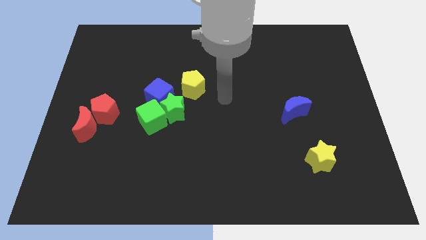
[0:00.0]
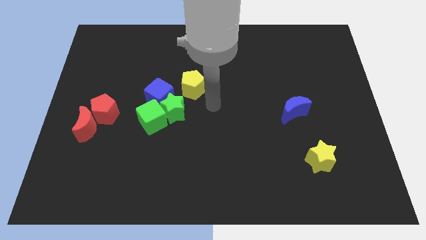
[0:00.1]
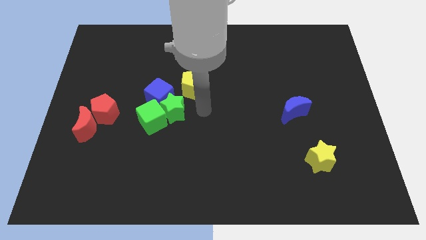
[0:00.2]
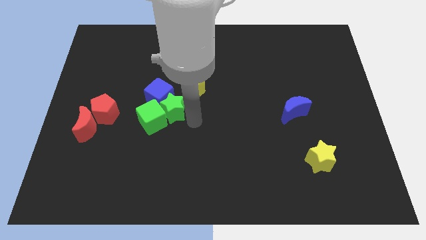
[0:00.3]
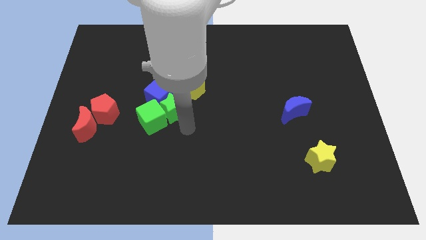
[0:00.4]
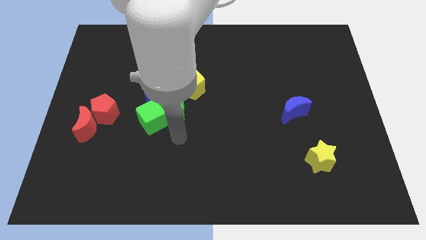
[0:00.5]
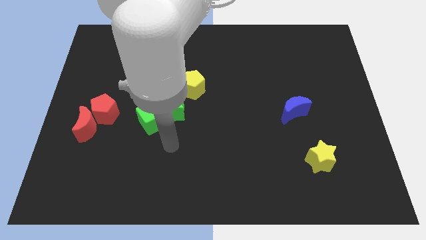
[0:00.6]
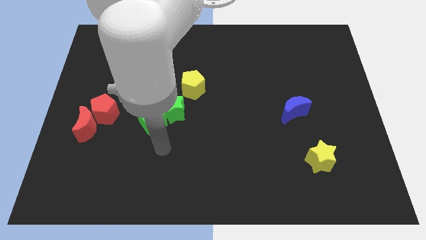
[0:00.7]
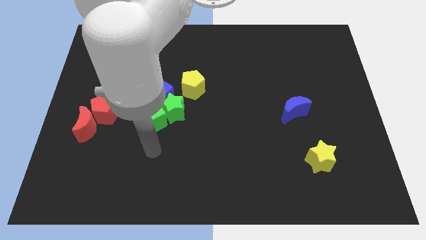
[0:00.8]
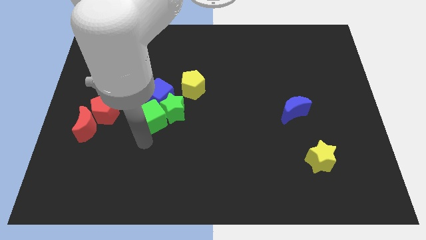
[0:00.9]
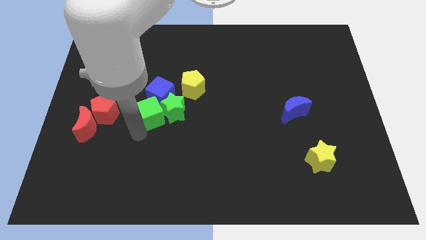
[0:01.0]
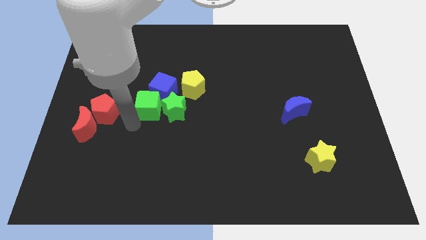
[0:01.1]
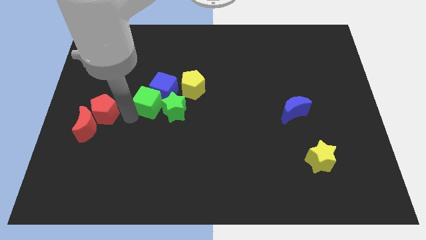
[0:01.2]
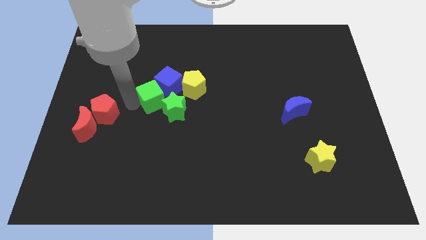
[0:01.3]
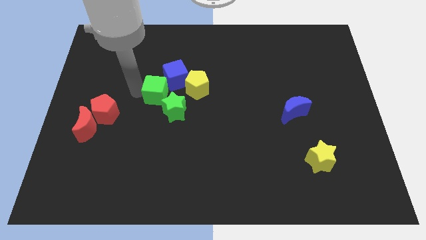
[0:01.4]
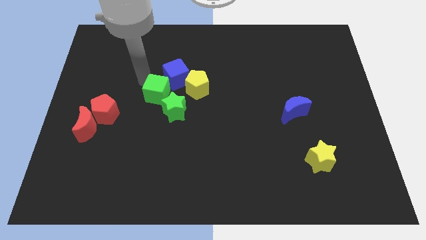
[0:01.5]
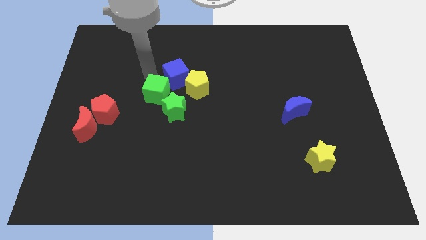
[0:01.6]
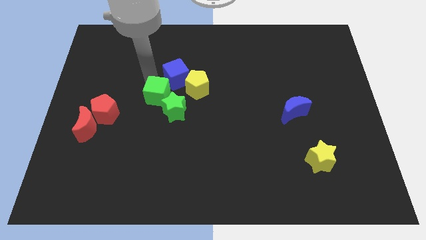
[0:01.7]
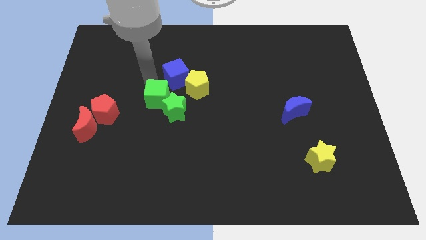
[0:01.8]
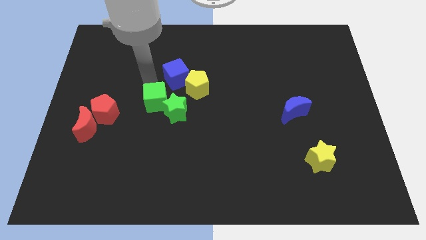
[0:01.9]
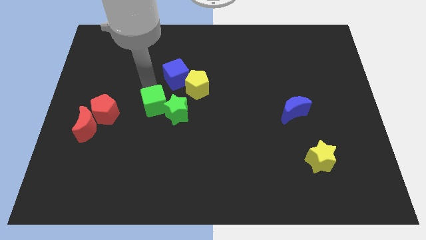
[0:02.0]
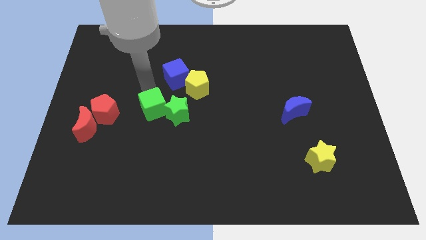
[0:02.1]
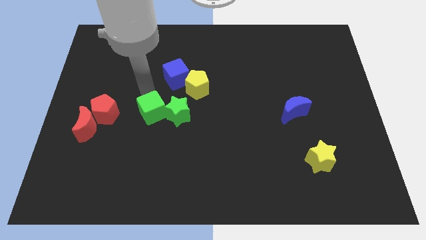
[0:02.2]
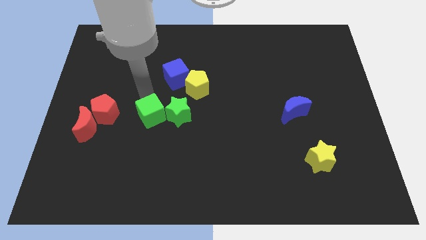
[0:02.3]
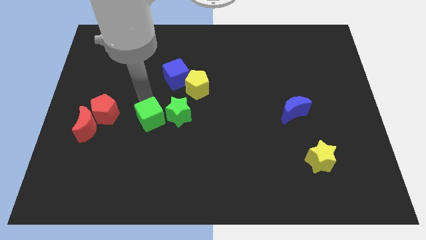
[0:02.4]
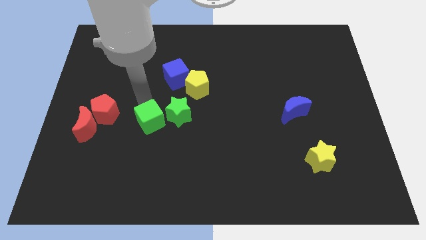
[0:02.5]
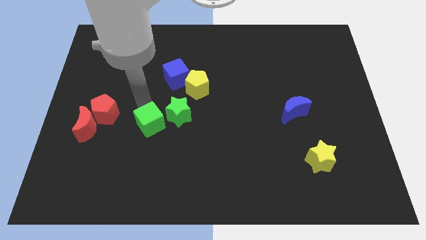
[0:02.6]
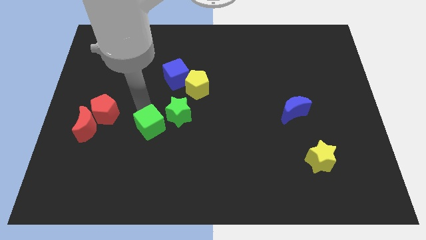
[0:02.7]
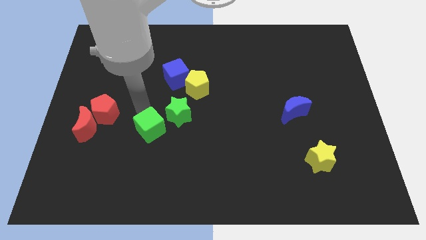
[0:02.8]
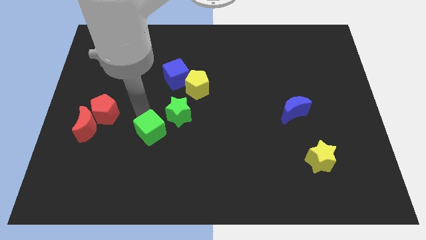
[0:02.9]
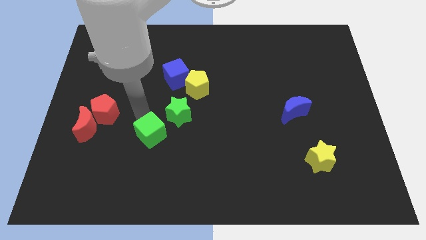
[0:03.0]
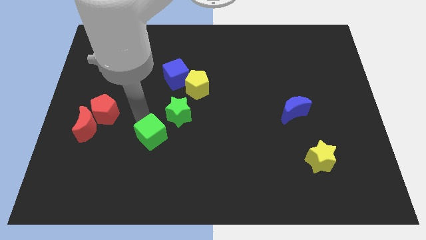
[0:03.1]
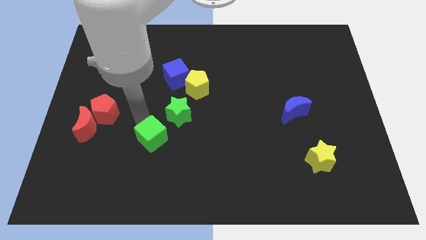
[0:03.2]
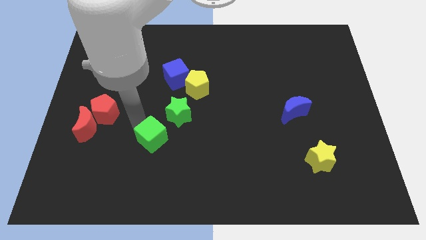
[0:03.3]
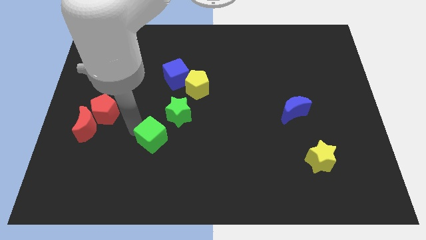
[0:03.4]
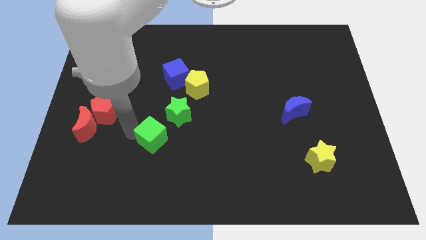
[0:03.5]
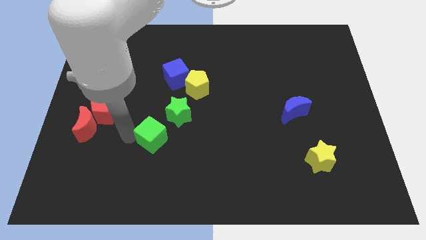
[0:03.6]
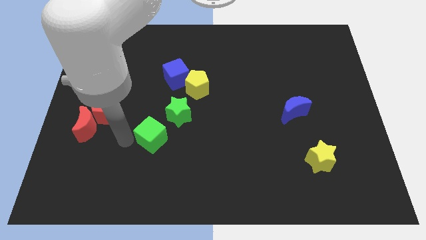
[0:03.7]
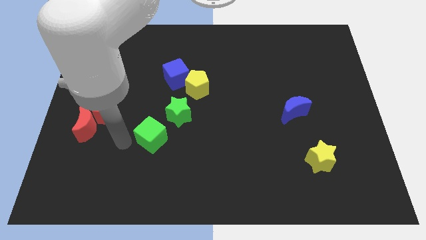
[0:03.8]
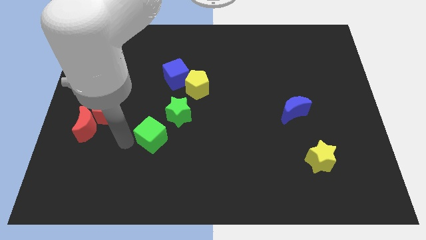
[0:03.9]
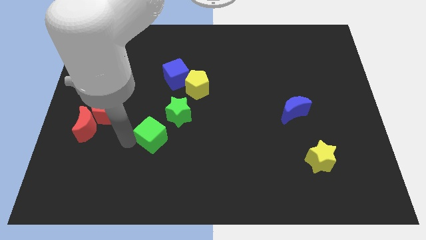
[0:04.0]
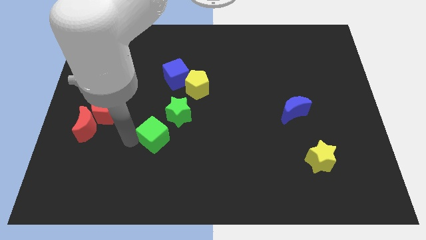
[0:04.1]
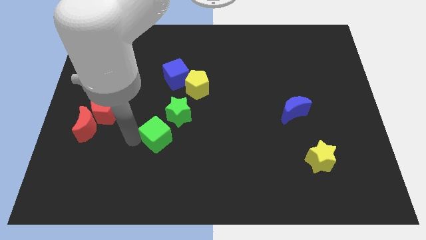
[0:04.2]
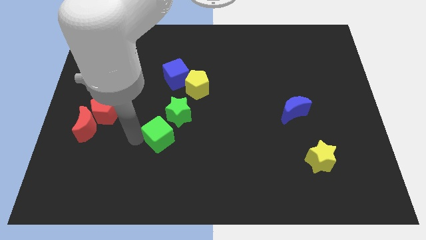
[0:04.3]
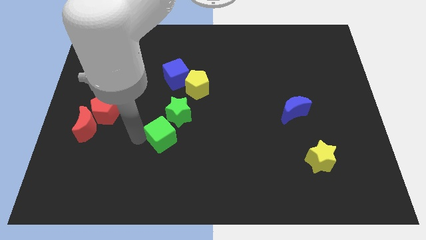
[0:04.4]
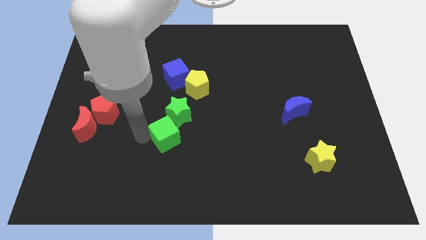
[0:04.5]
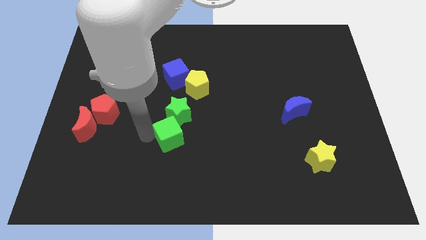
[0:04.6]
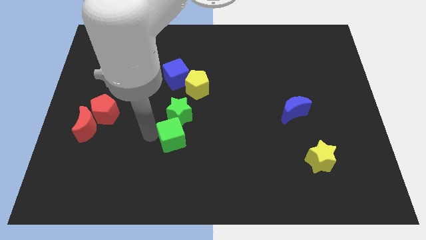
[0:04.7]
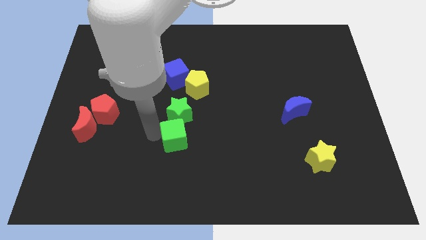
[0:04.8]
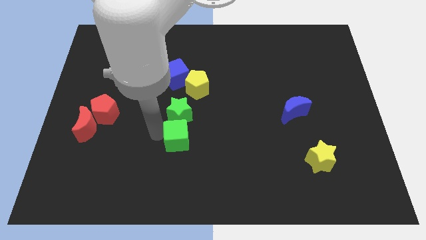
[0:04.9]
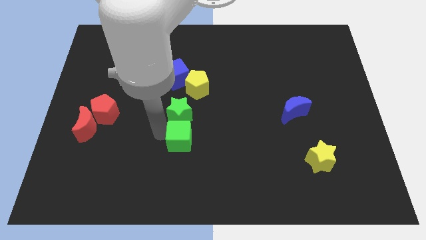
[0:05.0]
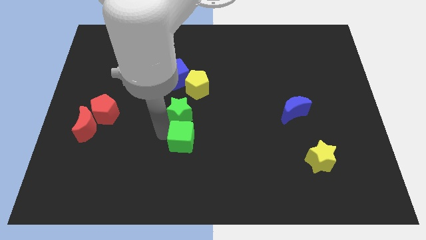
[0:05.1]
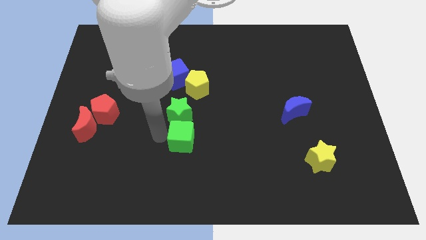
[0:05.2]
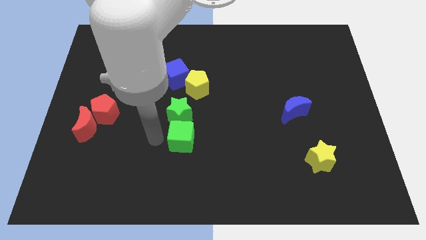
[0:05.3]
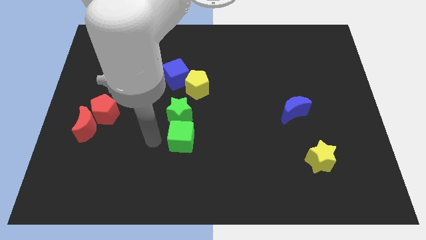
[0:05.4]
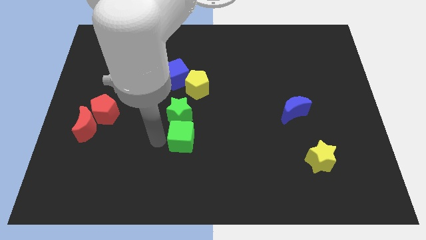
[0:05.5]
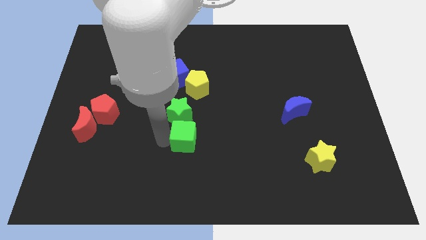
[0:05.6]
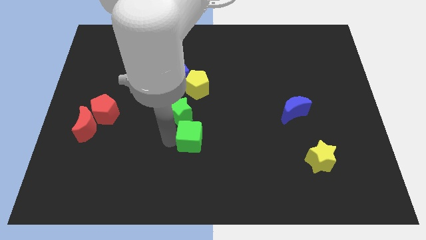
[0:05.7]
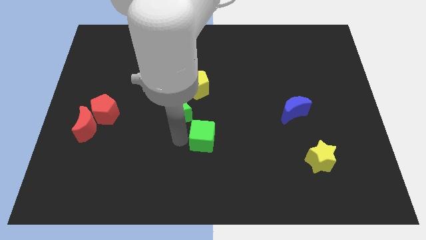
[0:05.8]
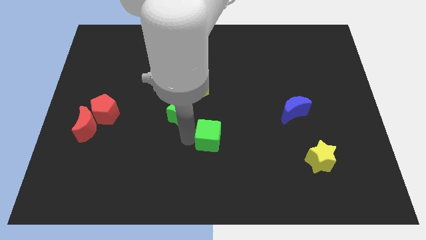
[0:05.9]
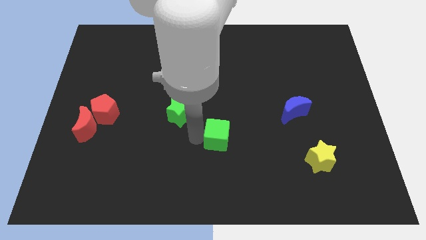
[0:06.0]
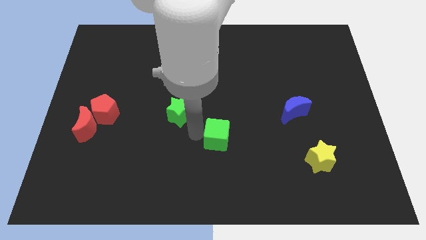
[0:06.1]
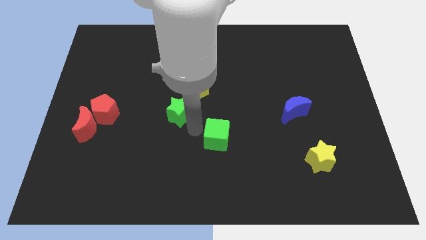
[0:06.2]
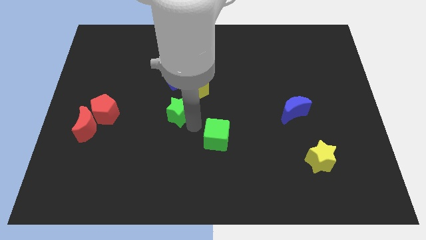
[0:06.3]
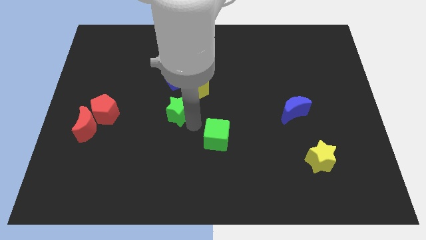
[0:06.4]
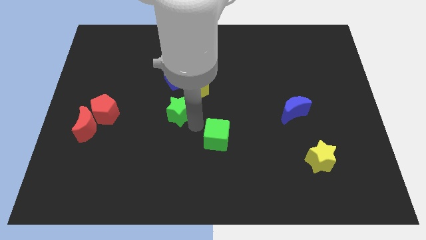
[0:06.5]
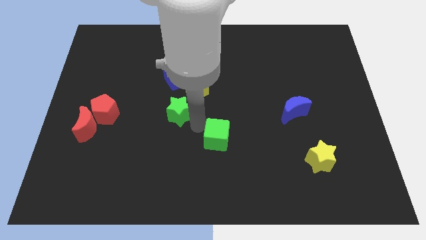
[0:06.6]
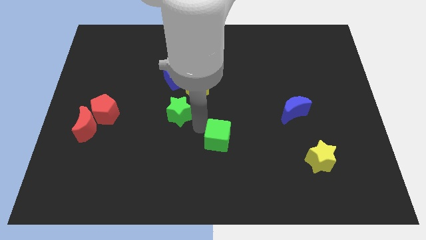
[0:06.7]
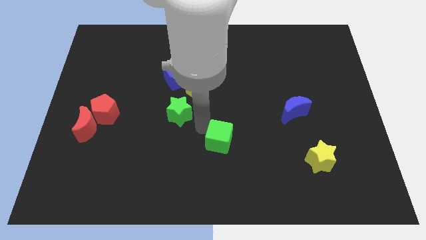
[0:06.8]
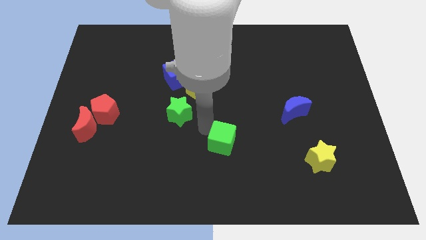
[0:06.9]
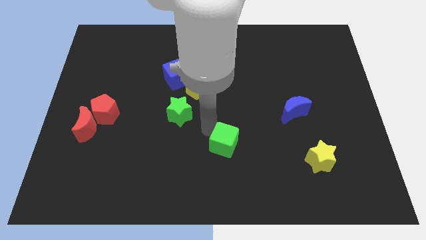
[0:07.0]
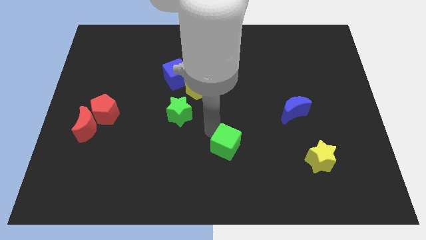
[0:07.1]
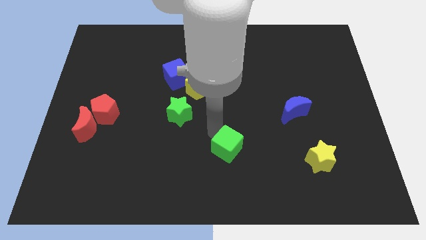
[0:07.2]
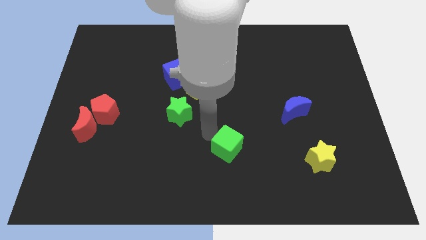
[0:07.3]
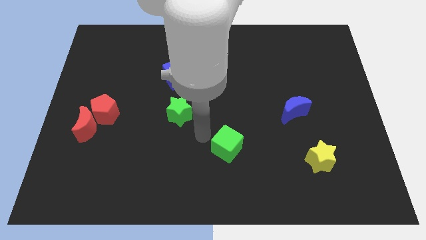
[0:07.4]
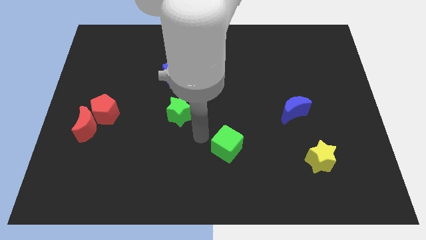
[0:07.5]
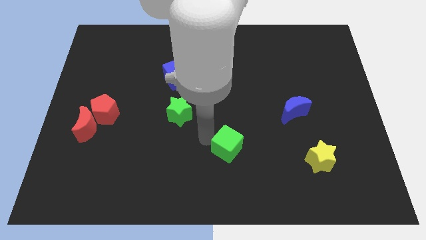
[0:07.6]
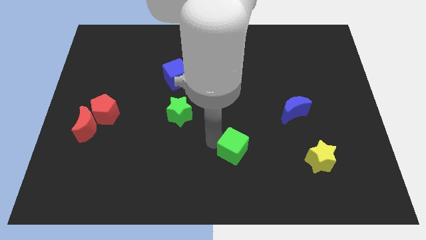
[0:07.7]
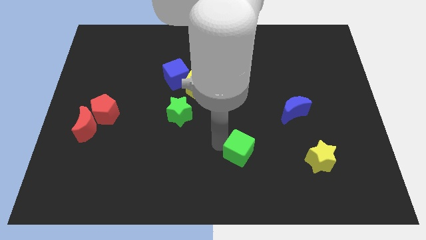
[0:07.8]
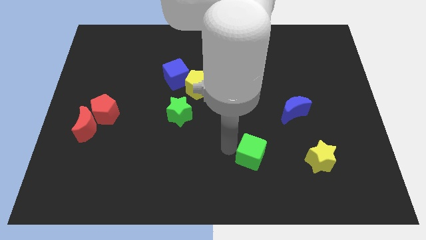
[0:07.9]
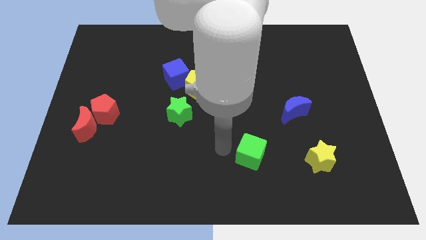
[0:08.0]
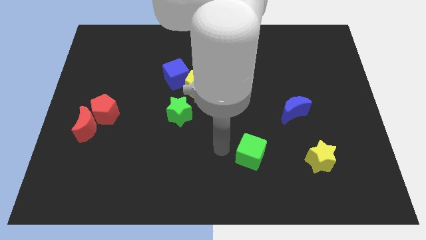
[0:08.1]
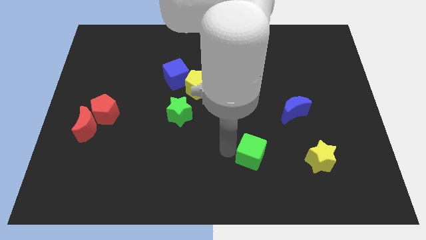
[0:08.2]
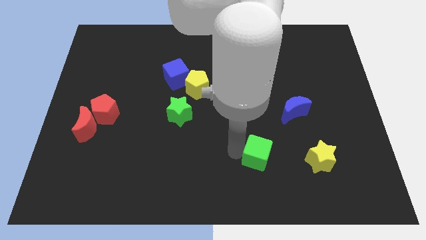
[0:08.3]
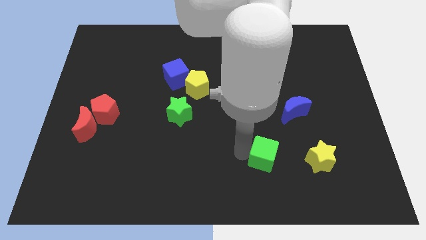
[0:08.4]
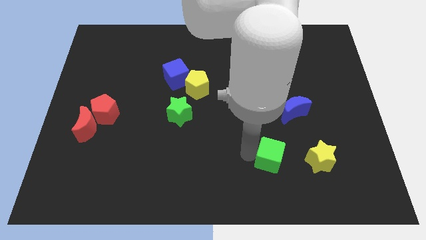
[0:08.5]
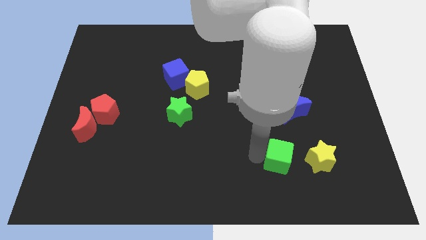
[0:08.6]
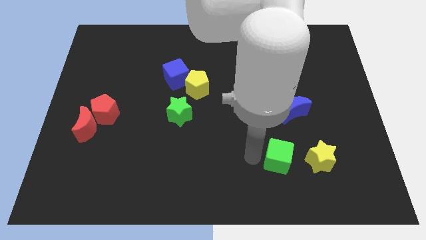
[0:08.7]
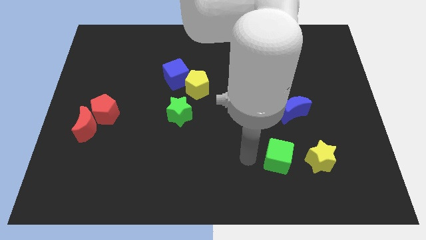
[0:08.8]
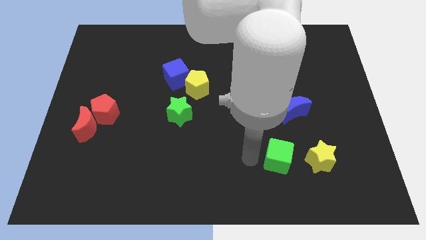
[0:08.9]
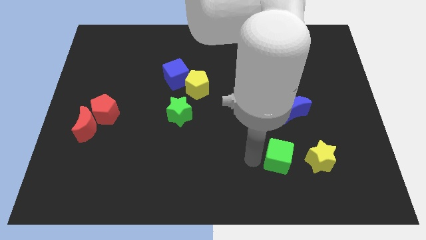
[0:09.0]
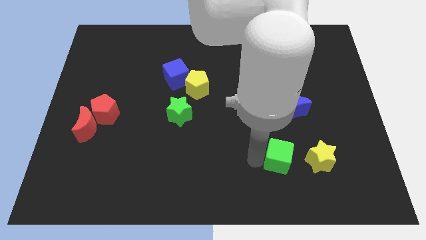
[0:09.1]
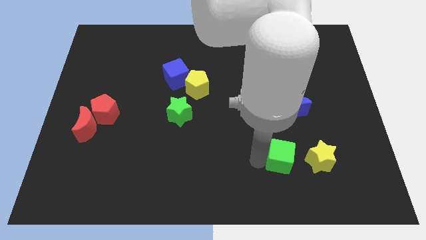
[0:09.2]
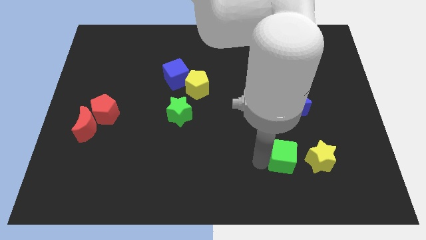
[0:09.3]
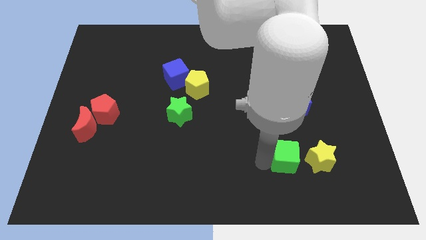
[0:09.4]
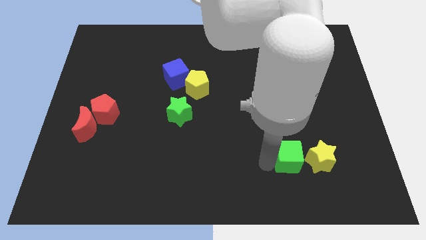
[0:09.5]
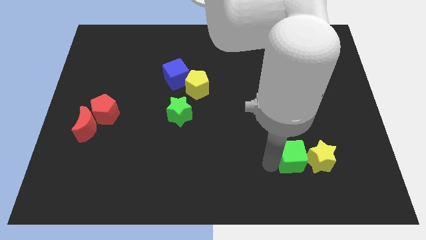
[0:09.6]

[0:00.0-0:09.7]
move the green cube close to the yellow star
